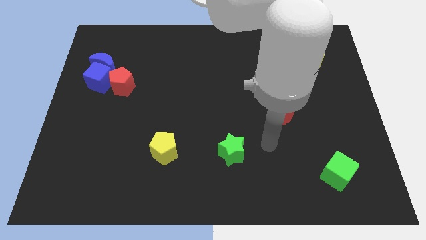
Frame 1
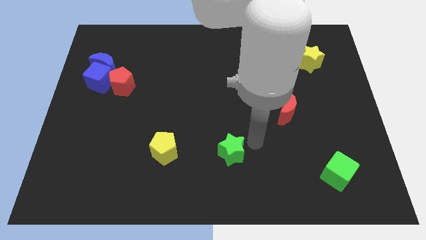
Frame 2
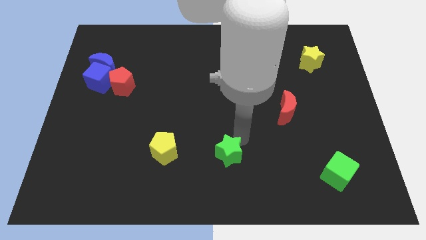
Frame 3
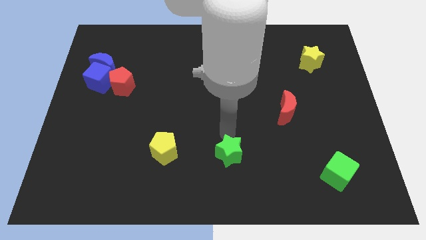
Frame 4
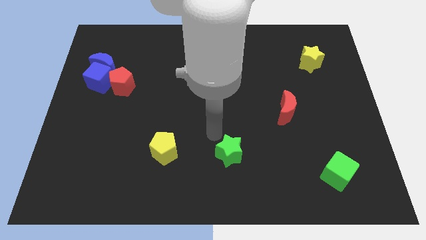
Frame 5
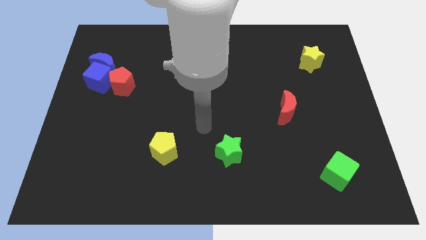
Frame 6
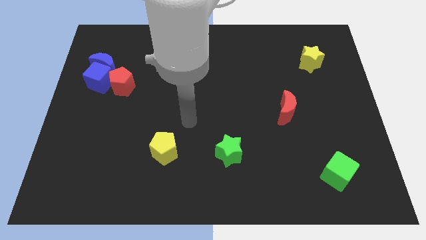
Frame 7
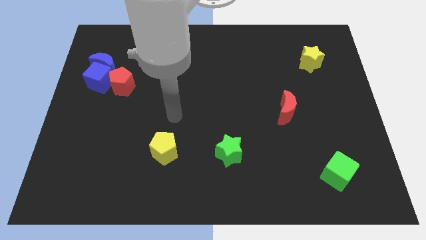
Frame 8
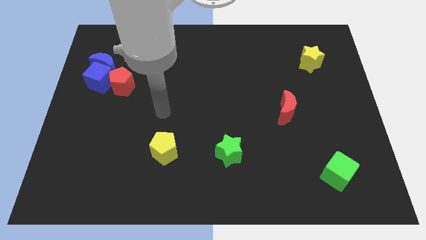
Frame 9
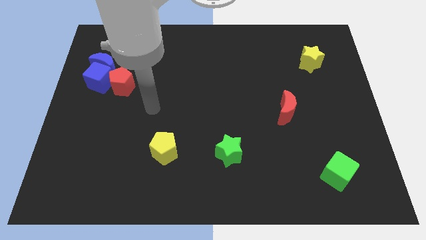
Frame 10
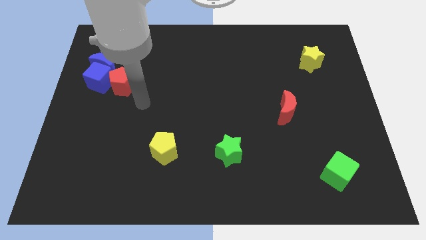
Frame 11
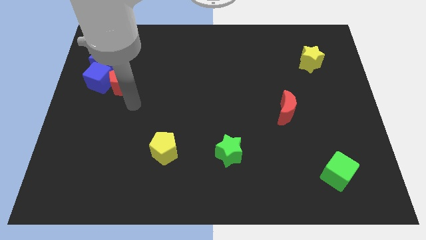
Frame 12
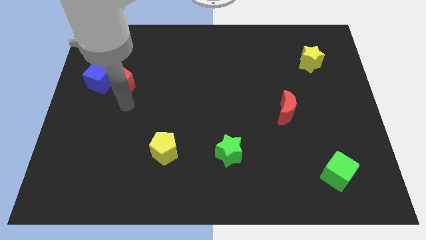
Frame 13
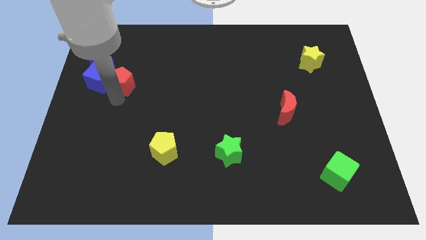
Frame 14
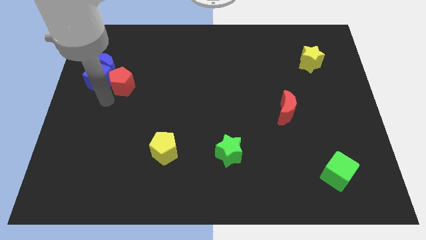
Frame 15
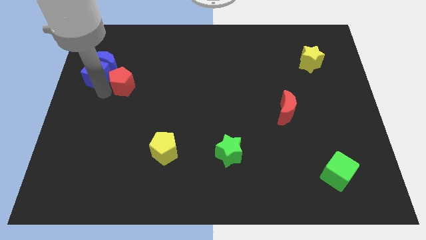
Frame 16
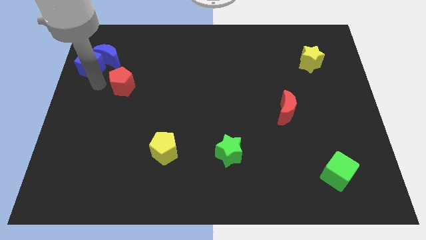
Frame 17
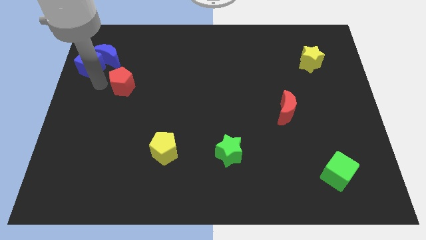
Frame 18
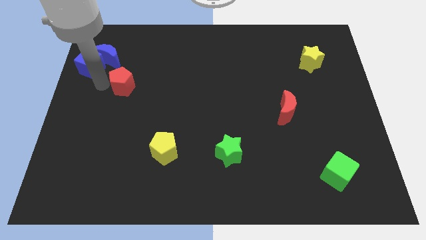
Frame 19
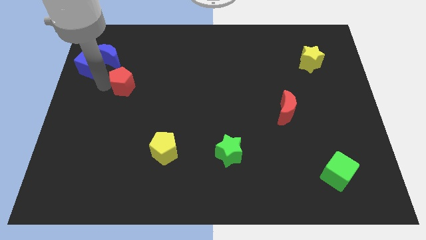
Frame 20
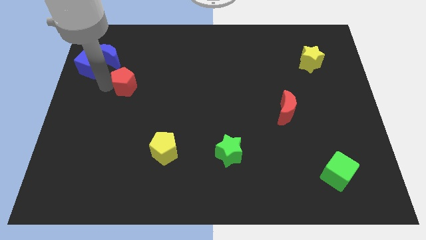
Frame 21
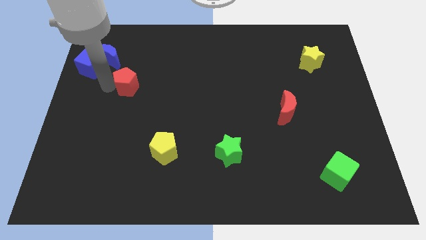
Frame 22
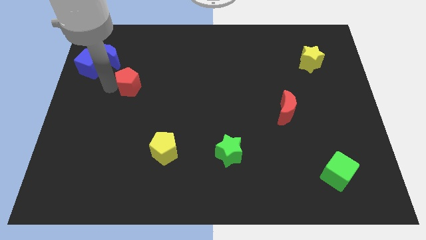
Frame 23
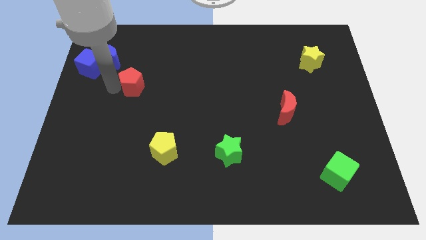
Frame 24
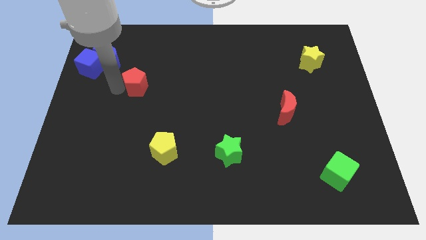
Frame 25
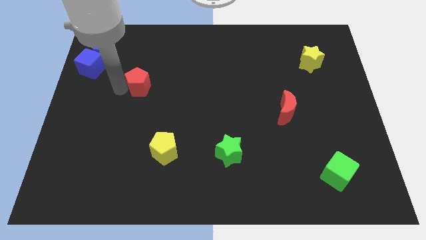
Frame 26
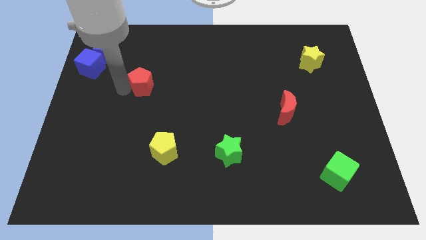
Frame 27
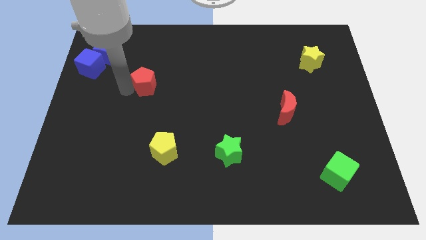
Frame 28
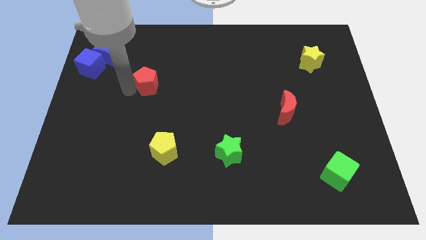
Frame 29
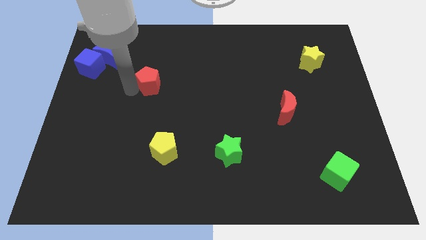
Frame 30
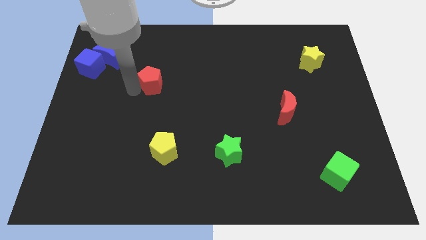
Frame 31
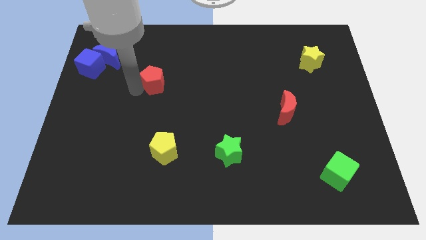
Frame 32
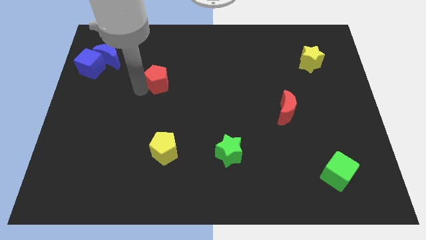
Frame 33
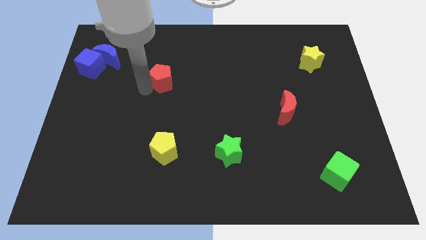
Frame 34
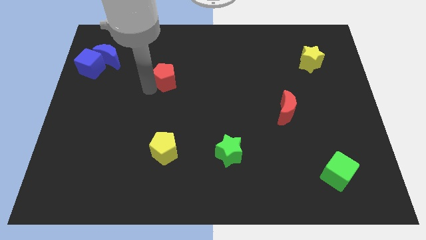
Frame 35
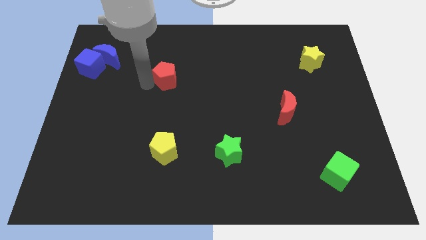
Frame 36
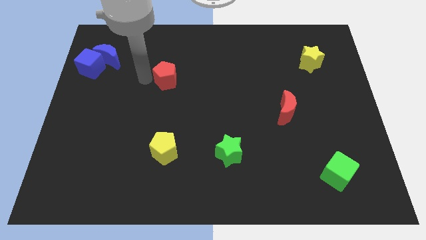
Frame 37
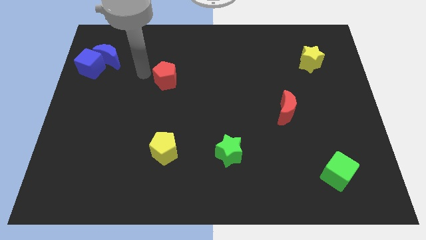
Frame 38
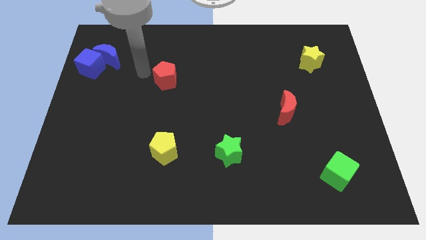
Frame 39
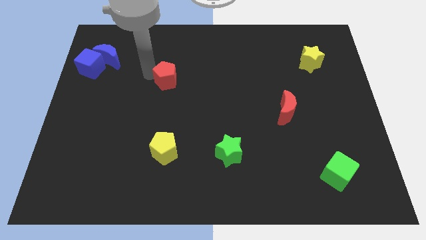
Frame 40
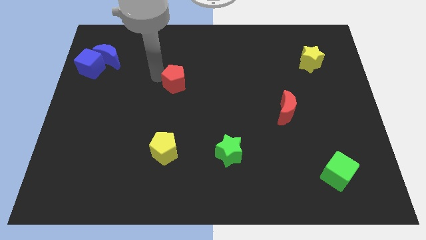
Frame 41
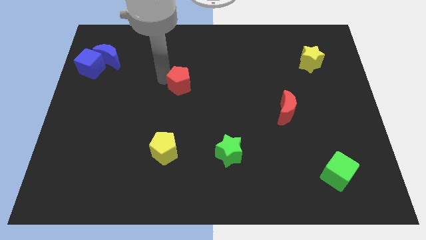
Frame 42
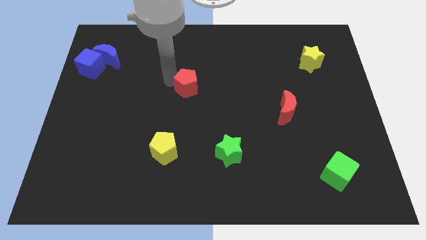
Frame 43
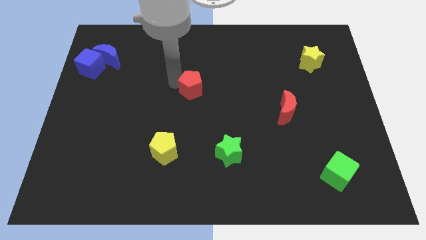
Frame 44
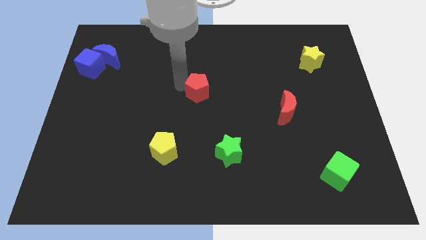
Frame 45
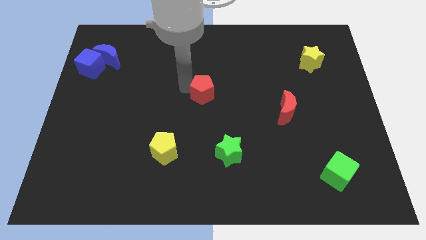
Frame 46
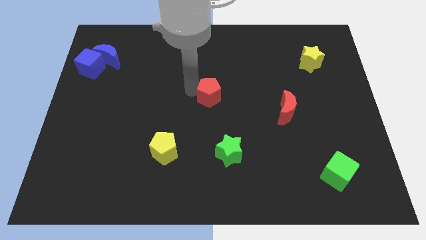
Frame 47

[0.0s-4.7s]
slide the red pentagon to the right

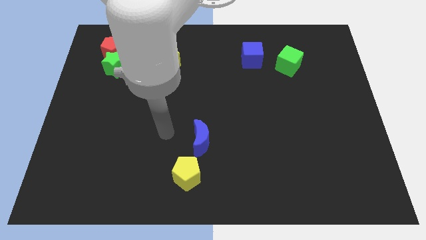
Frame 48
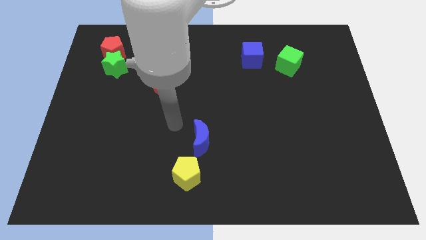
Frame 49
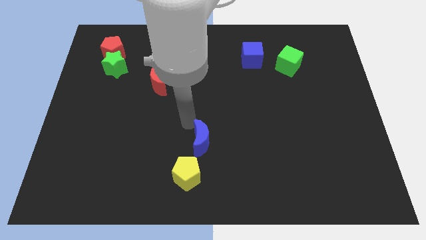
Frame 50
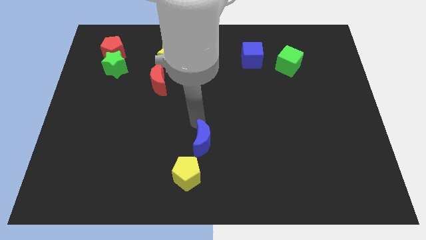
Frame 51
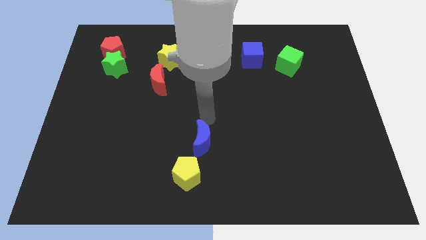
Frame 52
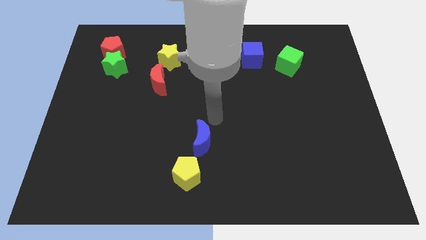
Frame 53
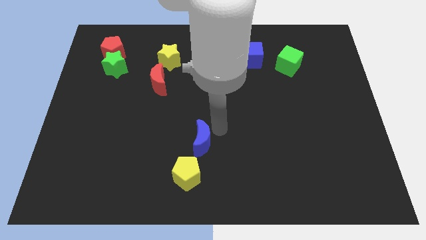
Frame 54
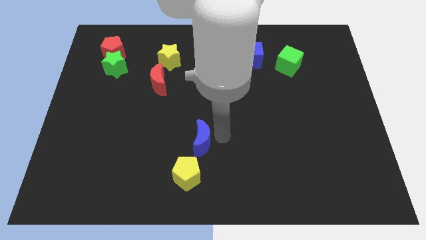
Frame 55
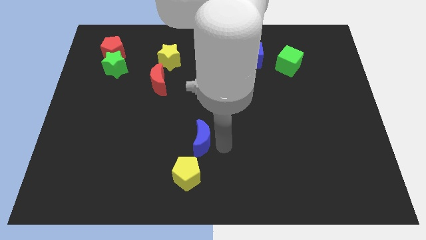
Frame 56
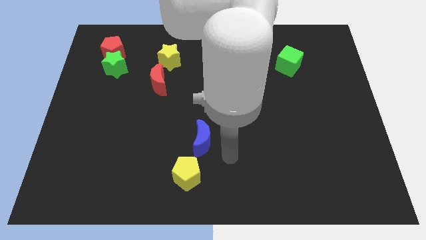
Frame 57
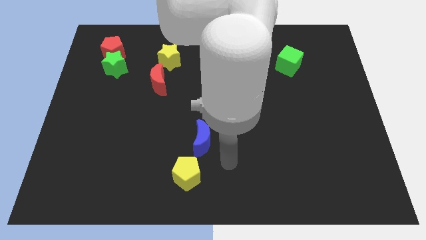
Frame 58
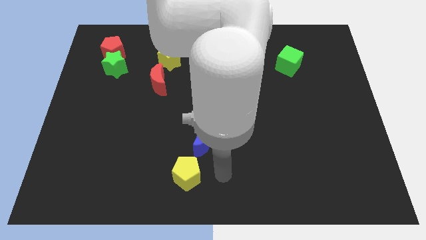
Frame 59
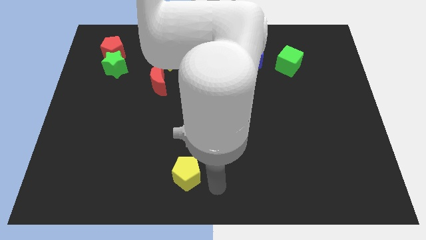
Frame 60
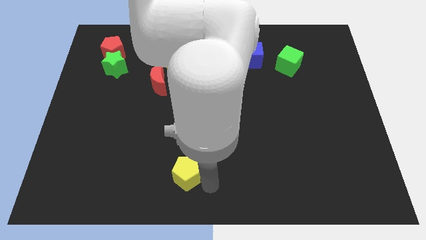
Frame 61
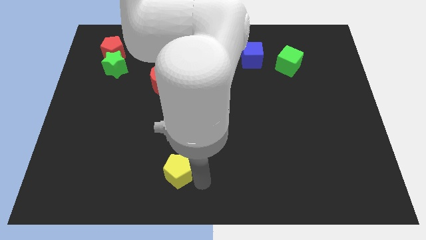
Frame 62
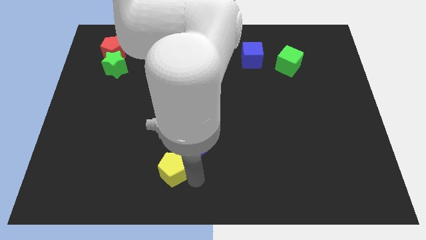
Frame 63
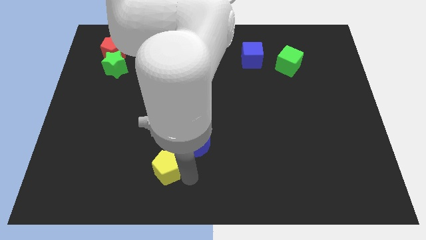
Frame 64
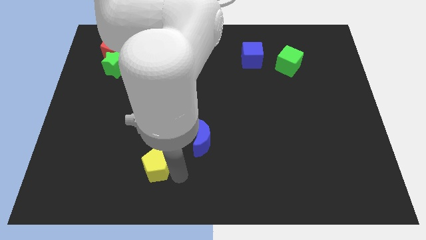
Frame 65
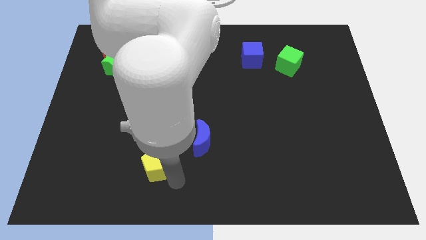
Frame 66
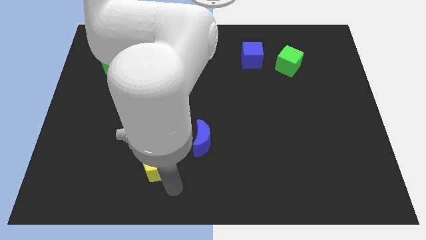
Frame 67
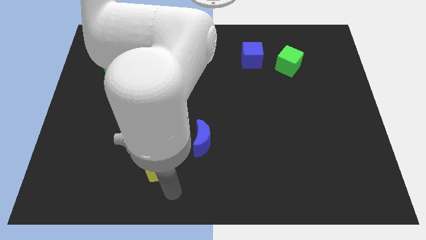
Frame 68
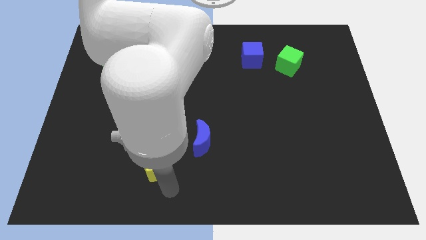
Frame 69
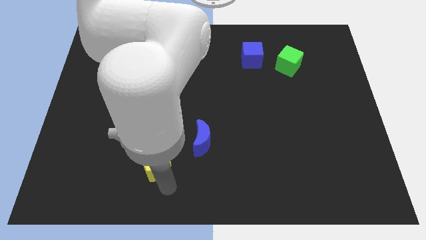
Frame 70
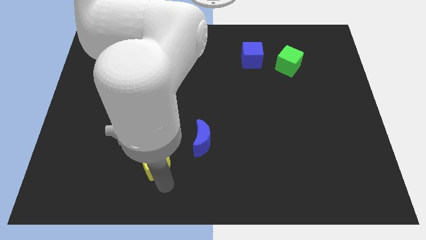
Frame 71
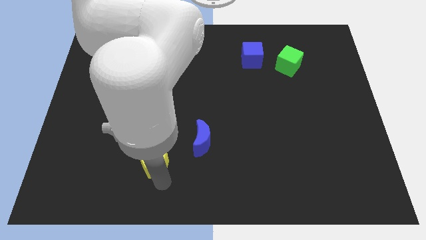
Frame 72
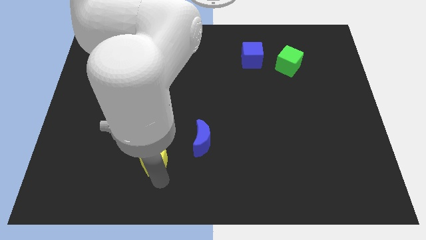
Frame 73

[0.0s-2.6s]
slightly move the yellow pentagon upwards and to the left

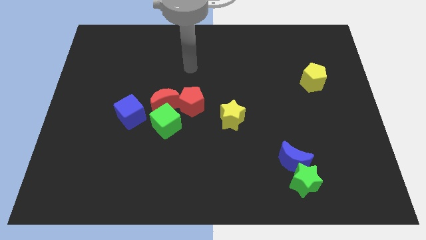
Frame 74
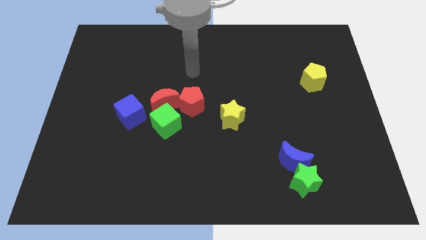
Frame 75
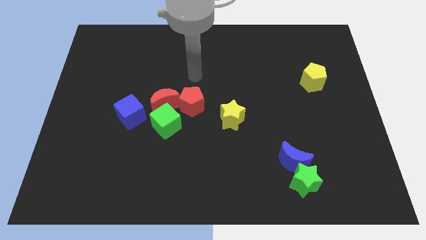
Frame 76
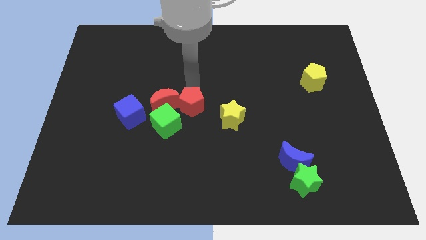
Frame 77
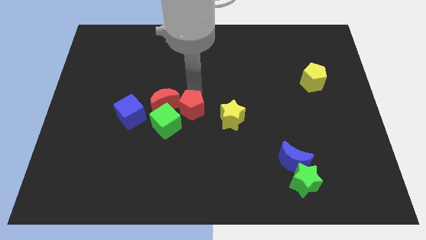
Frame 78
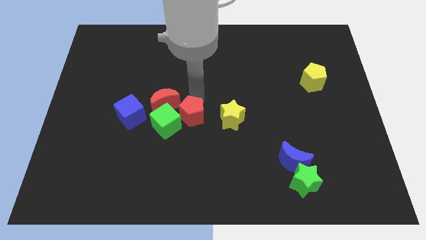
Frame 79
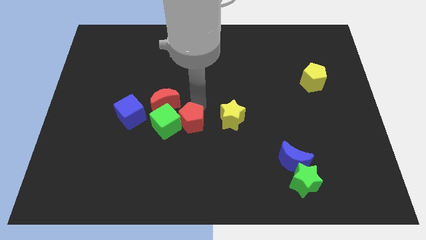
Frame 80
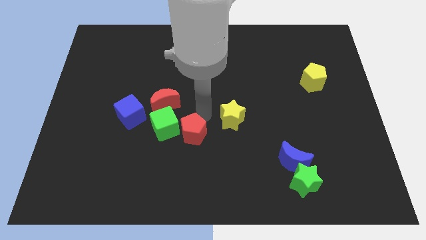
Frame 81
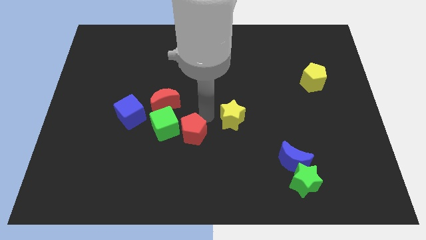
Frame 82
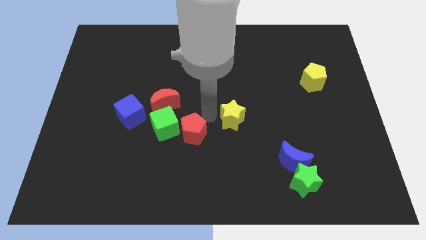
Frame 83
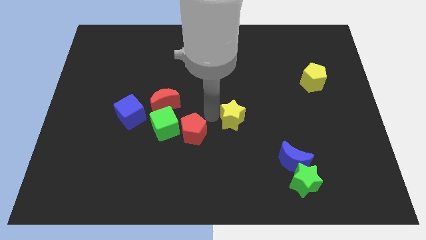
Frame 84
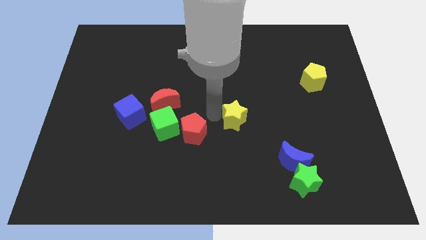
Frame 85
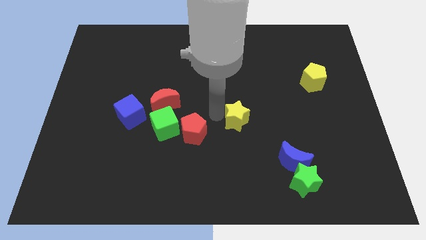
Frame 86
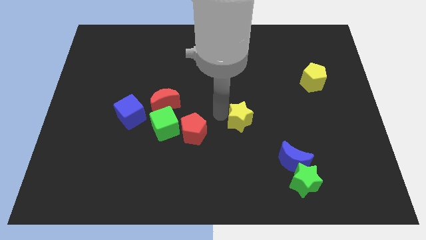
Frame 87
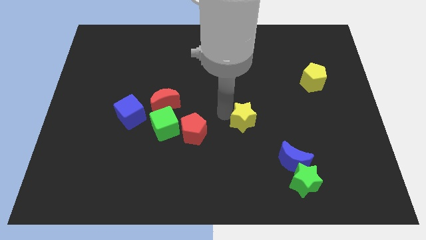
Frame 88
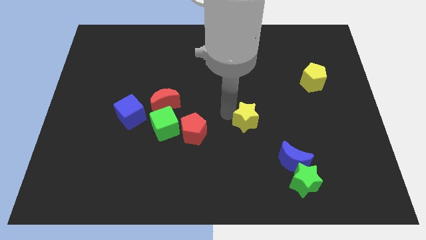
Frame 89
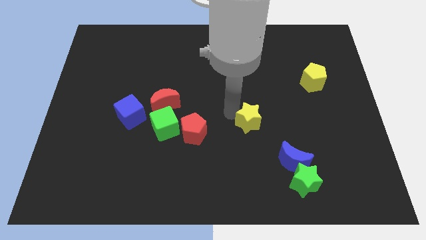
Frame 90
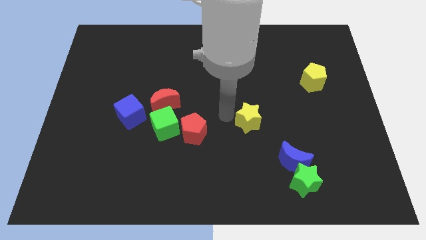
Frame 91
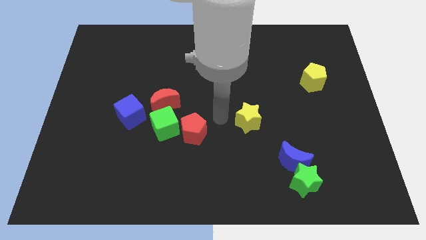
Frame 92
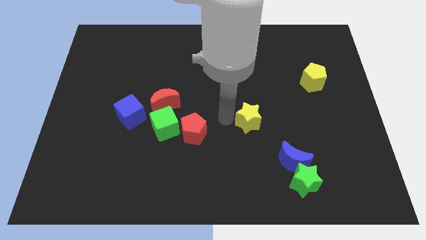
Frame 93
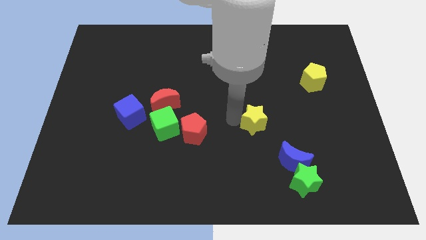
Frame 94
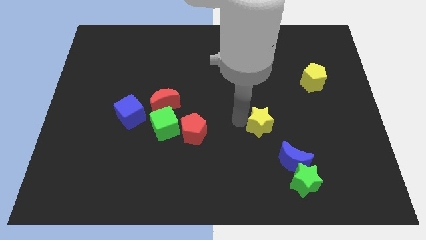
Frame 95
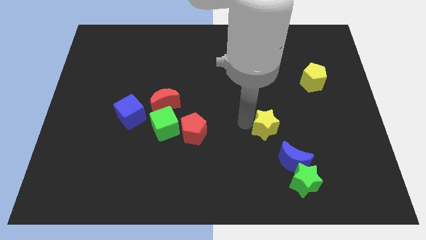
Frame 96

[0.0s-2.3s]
push the yellow star a little to the right
